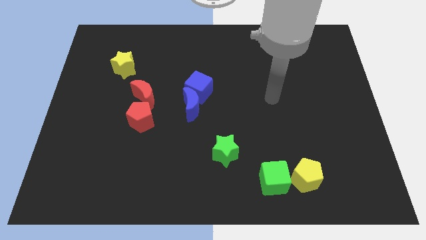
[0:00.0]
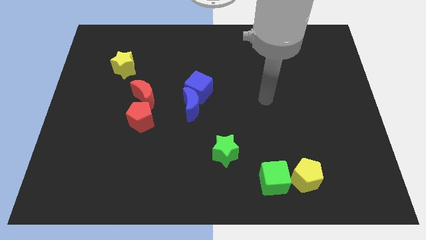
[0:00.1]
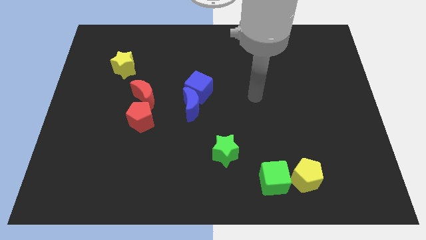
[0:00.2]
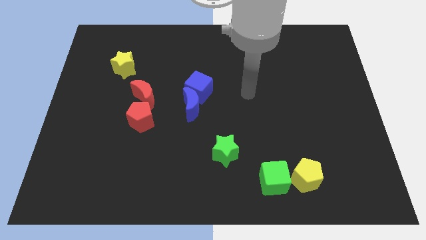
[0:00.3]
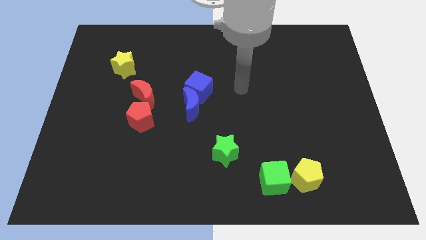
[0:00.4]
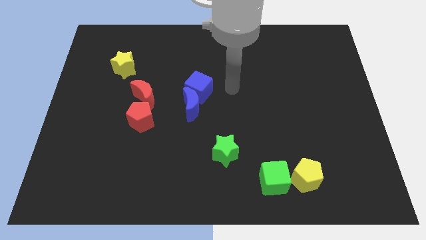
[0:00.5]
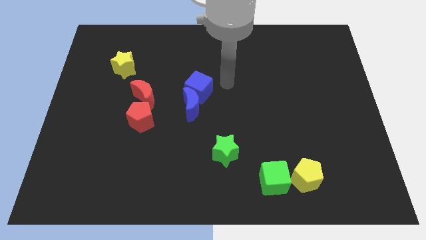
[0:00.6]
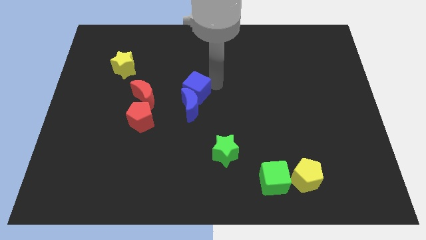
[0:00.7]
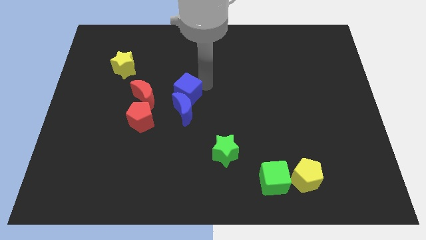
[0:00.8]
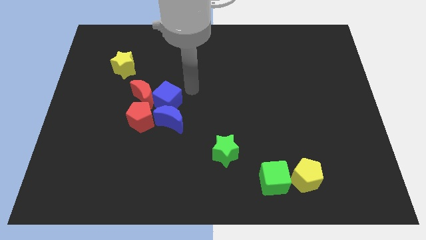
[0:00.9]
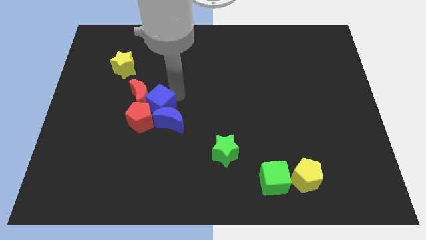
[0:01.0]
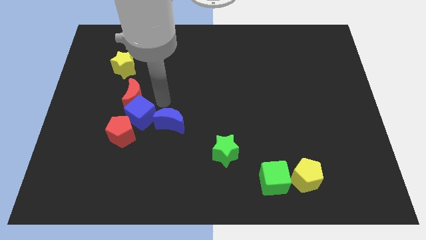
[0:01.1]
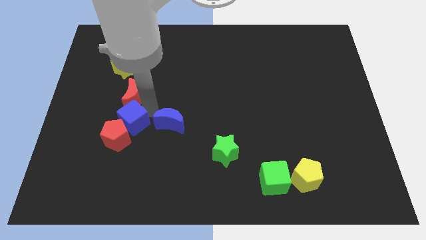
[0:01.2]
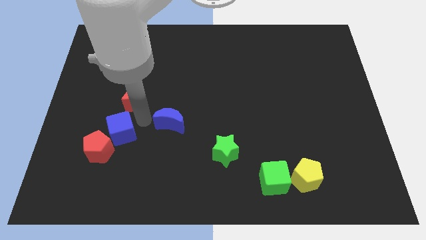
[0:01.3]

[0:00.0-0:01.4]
pull the blue moon apart from the blue cube

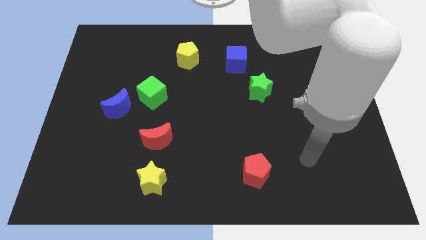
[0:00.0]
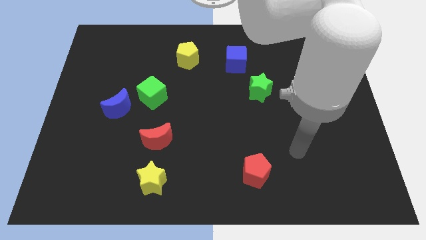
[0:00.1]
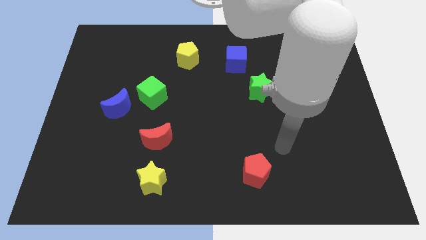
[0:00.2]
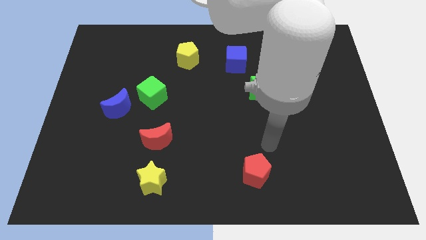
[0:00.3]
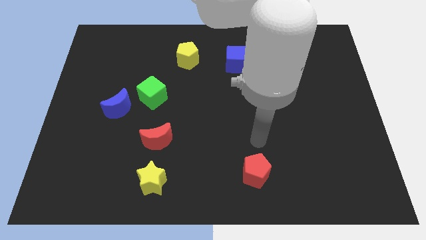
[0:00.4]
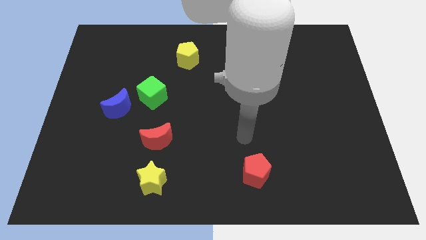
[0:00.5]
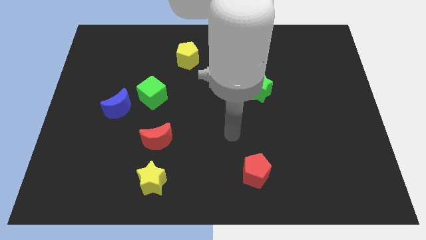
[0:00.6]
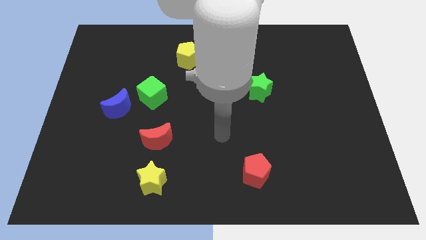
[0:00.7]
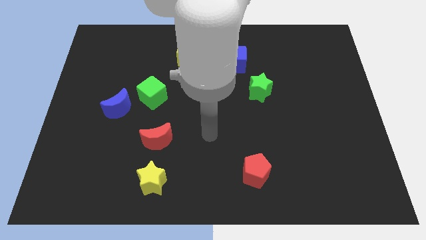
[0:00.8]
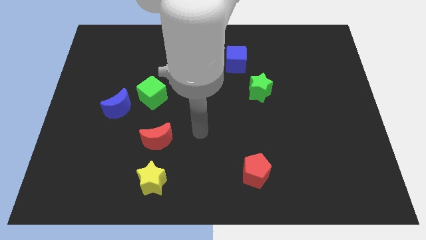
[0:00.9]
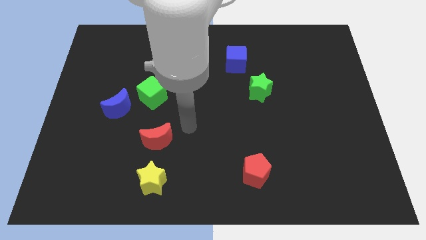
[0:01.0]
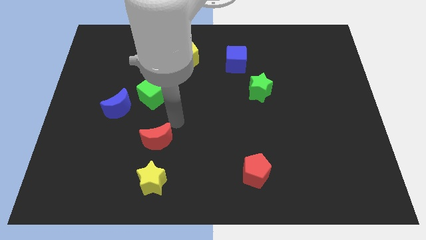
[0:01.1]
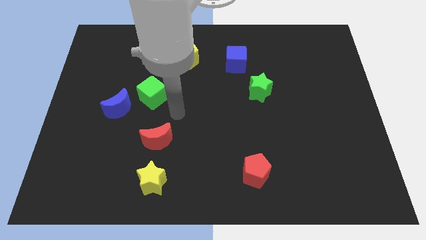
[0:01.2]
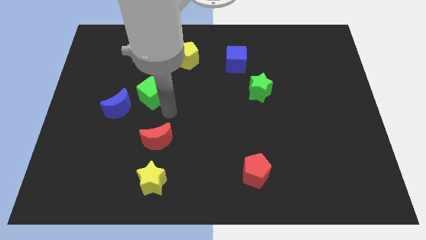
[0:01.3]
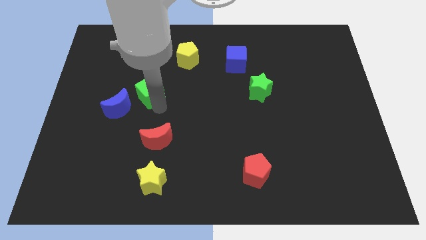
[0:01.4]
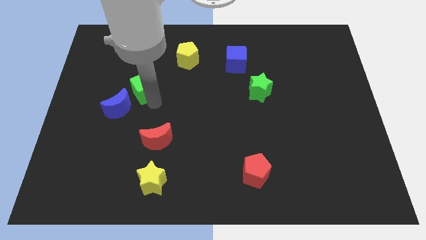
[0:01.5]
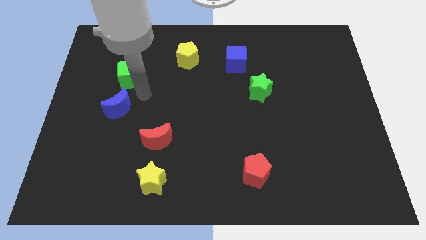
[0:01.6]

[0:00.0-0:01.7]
move the blue moon away from the green cube

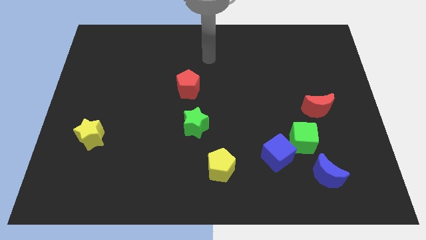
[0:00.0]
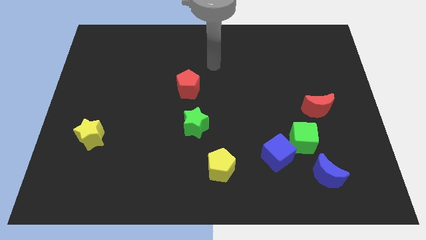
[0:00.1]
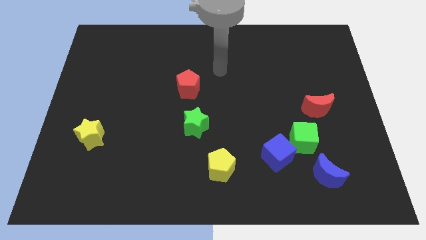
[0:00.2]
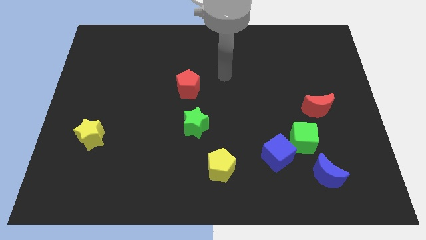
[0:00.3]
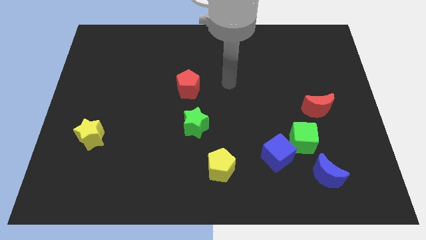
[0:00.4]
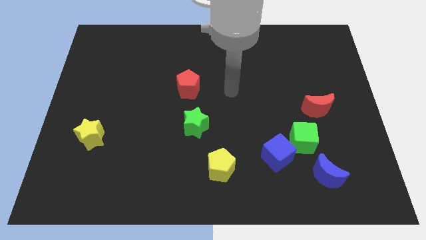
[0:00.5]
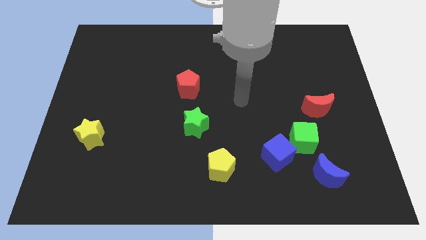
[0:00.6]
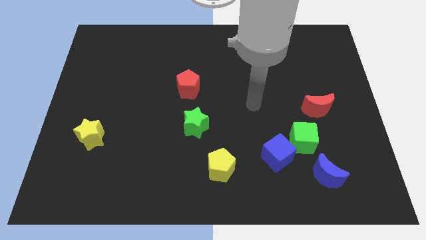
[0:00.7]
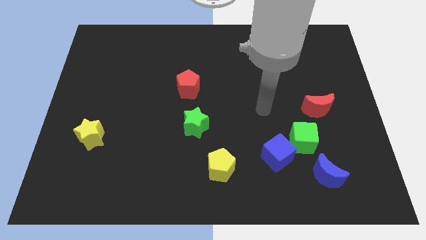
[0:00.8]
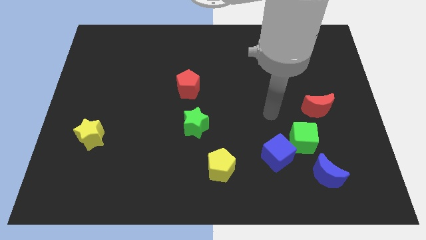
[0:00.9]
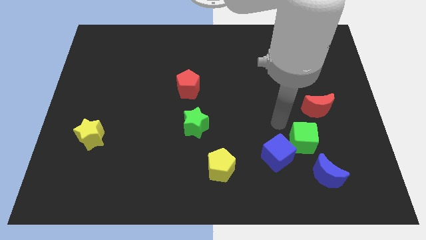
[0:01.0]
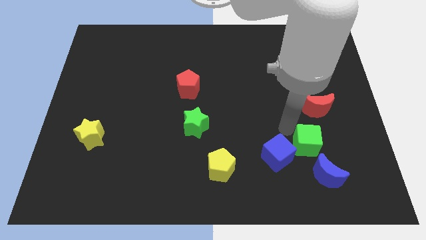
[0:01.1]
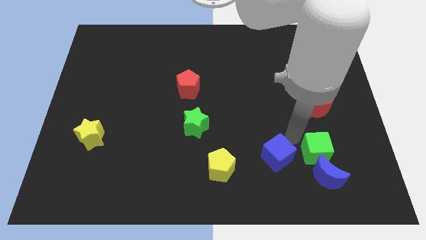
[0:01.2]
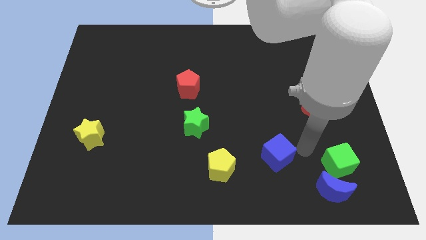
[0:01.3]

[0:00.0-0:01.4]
move the blue cube away from the green cube

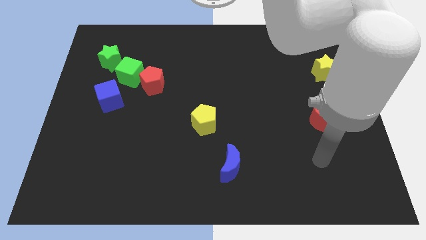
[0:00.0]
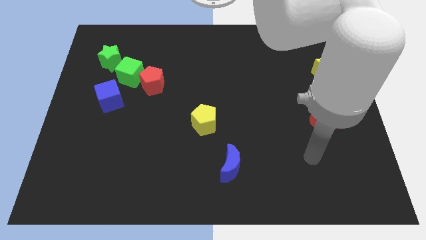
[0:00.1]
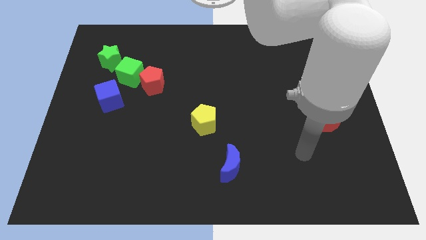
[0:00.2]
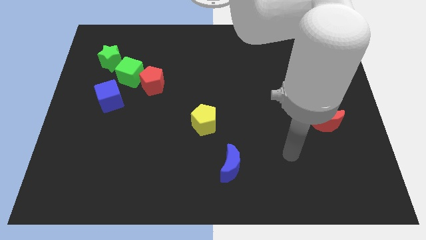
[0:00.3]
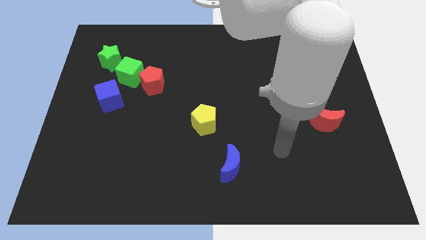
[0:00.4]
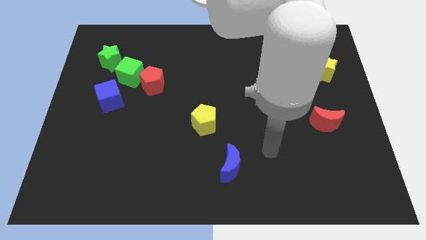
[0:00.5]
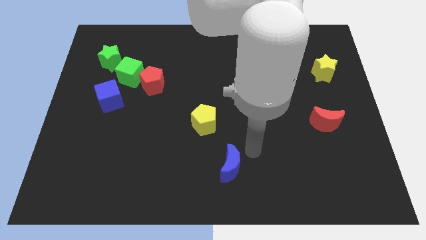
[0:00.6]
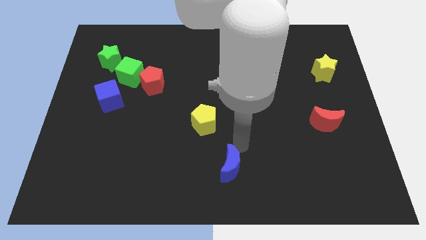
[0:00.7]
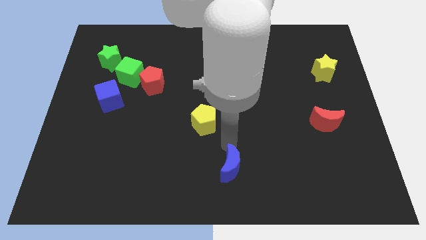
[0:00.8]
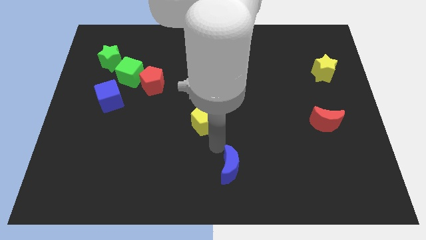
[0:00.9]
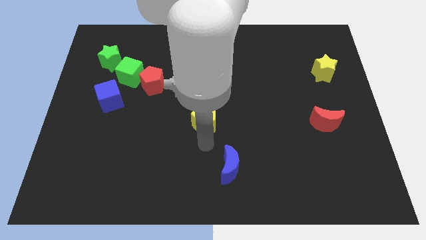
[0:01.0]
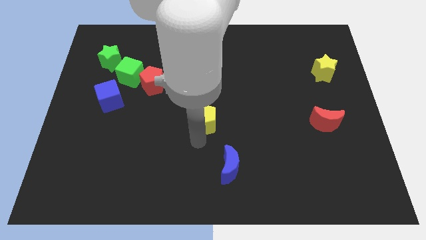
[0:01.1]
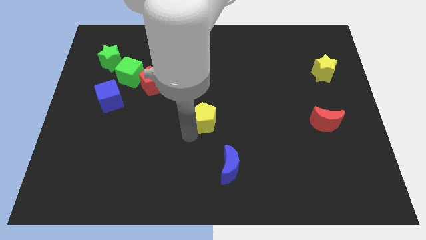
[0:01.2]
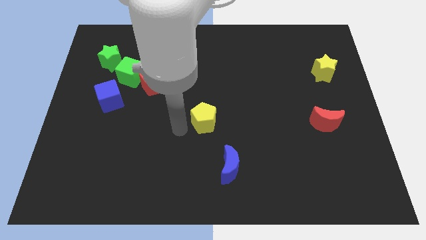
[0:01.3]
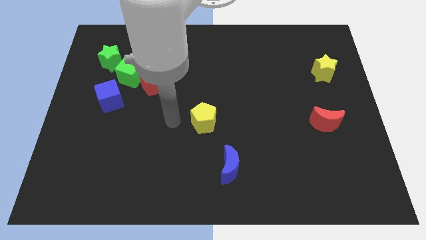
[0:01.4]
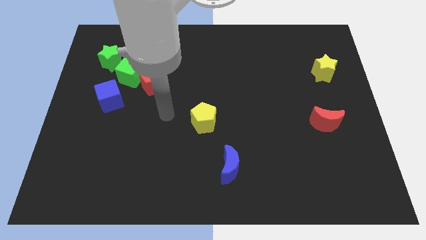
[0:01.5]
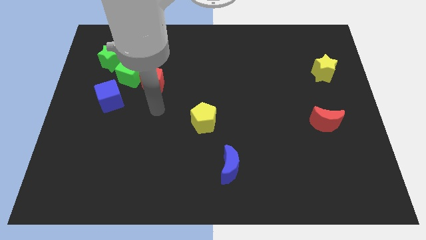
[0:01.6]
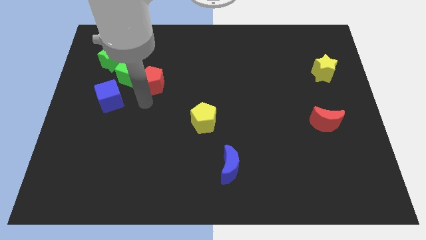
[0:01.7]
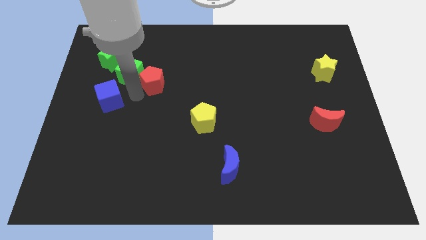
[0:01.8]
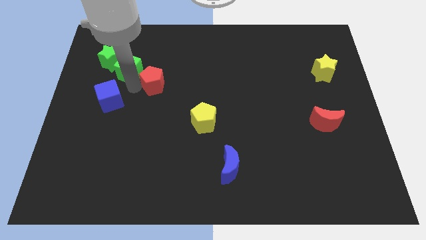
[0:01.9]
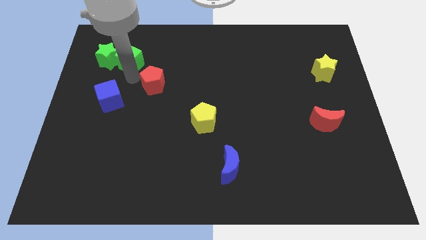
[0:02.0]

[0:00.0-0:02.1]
separate the red pentagon from the green cube

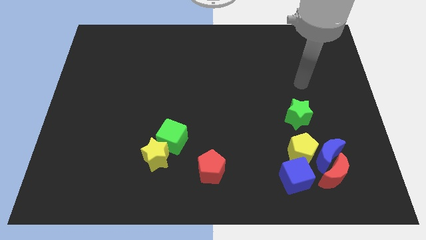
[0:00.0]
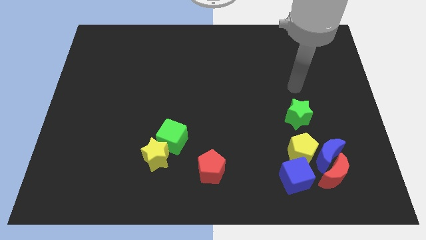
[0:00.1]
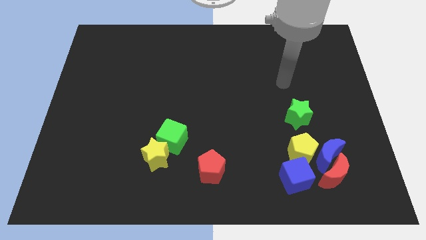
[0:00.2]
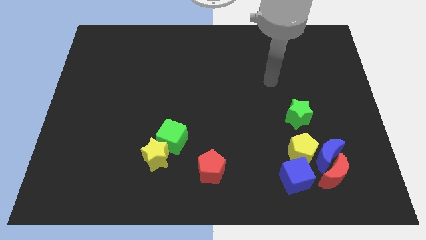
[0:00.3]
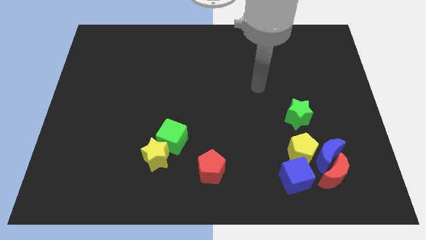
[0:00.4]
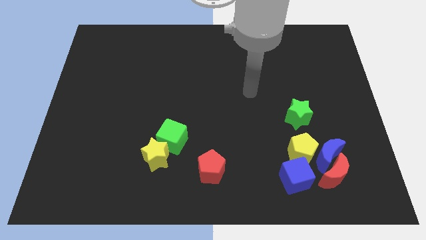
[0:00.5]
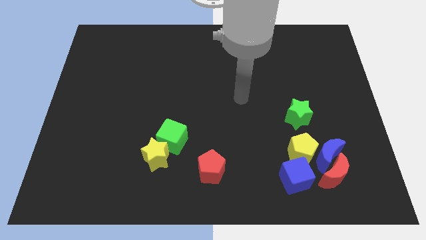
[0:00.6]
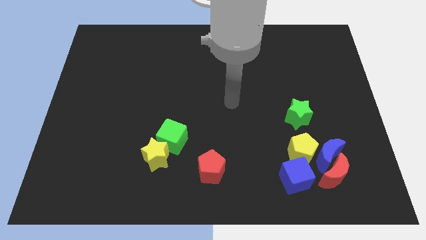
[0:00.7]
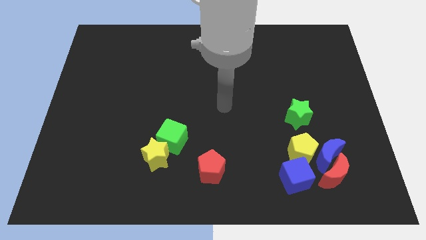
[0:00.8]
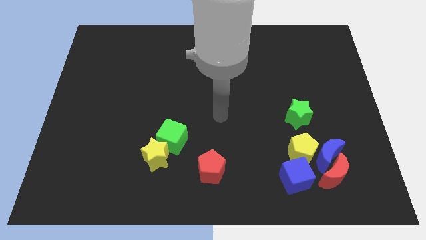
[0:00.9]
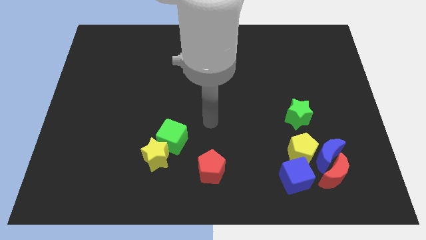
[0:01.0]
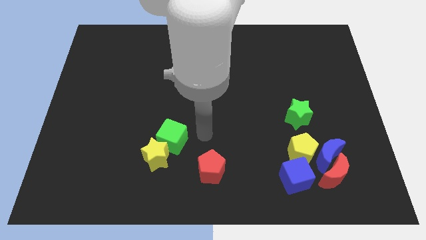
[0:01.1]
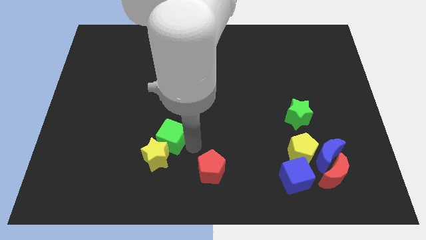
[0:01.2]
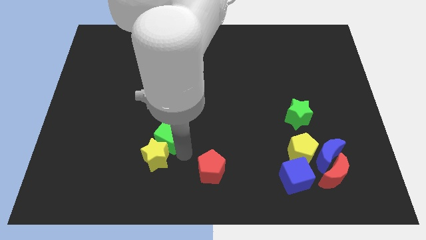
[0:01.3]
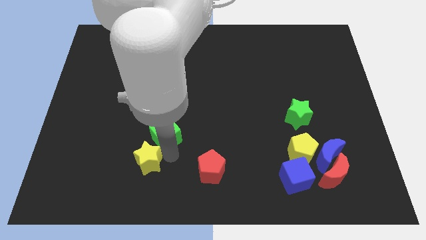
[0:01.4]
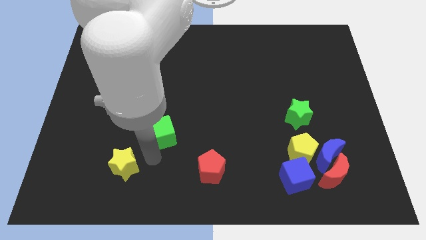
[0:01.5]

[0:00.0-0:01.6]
move the green cube away from the yellow star

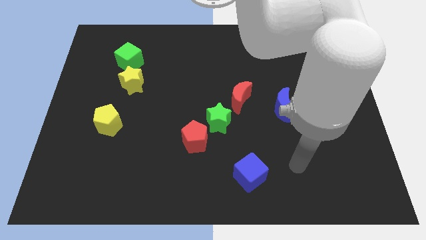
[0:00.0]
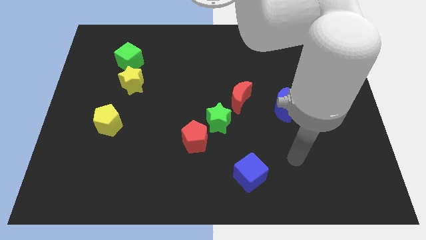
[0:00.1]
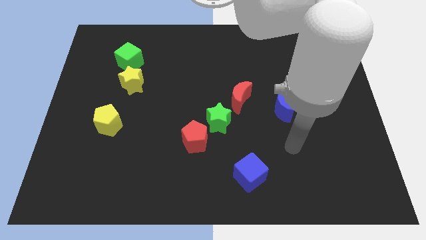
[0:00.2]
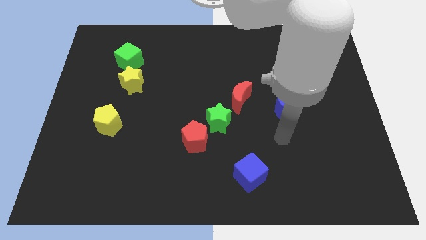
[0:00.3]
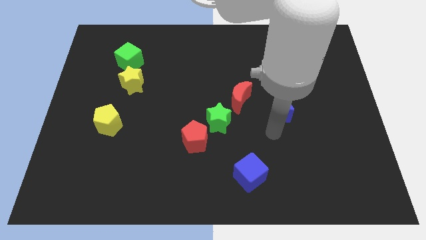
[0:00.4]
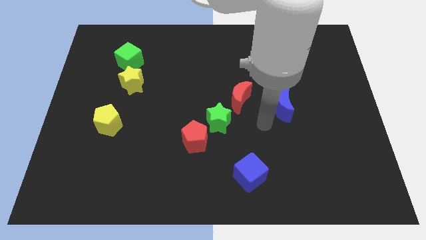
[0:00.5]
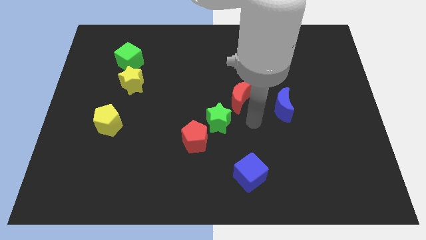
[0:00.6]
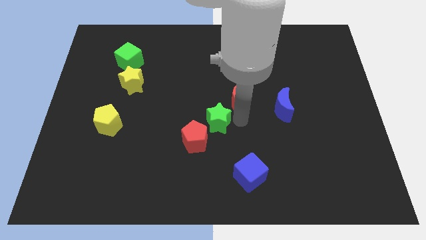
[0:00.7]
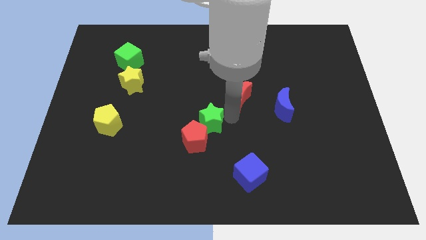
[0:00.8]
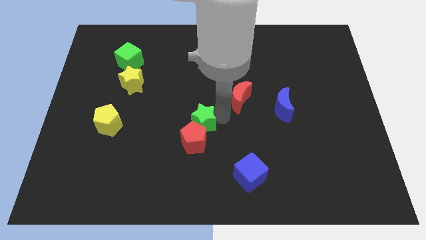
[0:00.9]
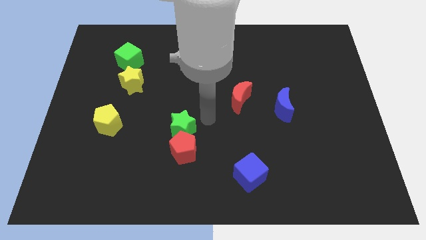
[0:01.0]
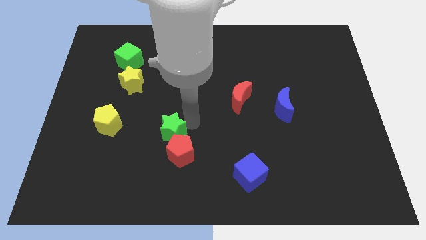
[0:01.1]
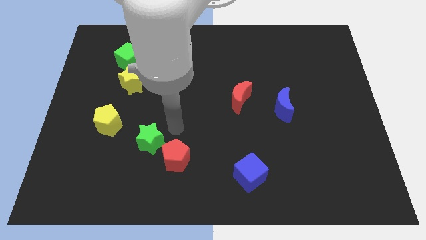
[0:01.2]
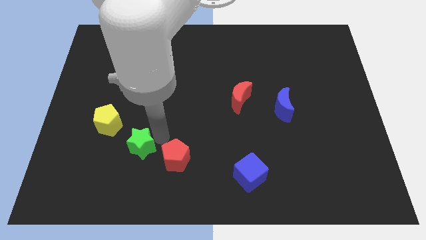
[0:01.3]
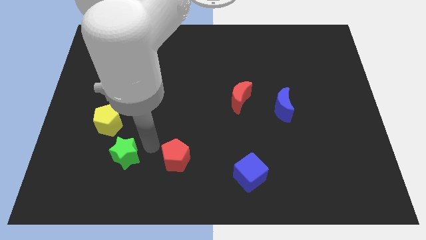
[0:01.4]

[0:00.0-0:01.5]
separate the red pentagon from the green star
